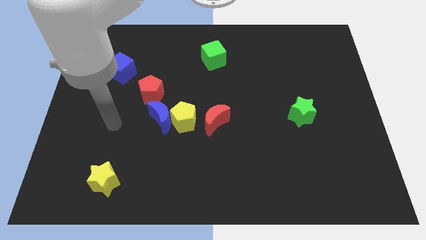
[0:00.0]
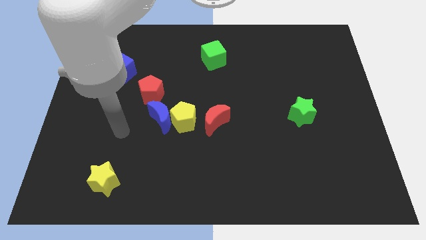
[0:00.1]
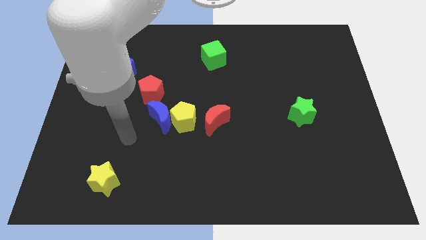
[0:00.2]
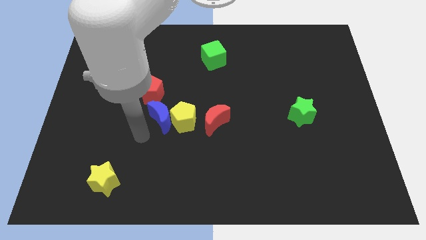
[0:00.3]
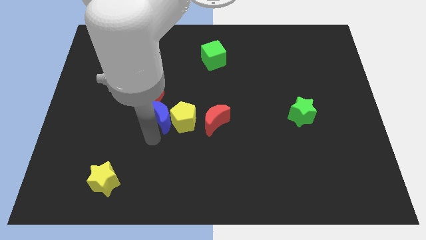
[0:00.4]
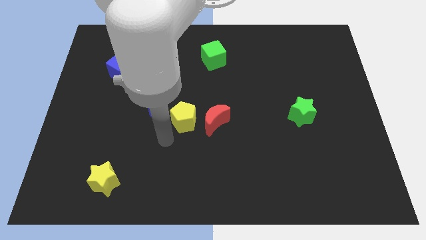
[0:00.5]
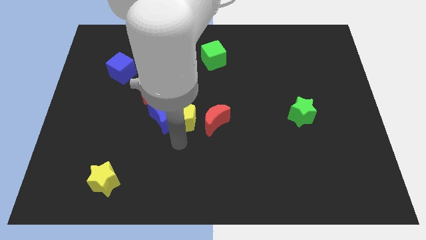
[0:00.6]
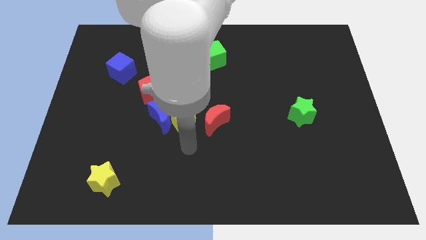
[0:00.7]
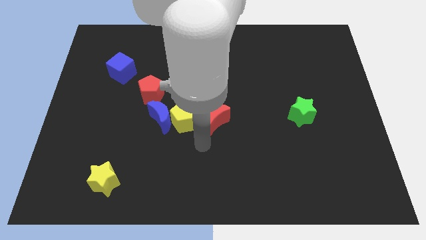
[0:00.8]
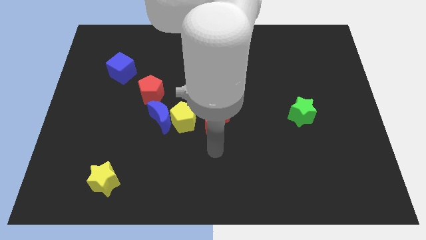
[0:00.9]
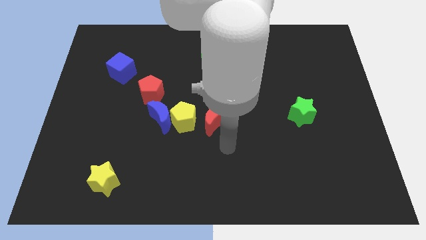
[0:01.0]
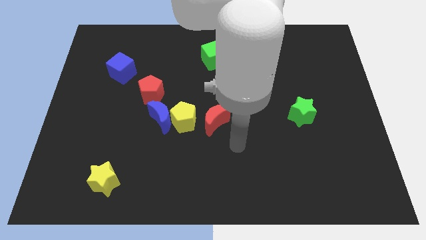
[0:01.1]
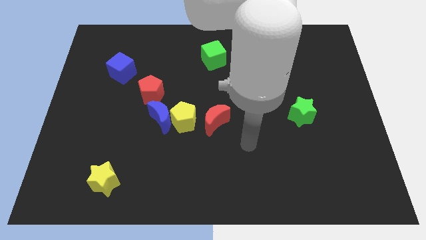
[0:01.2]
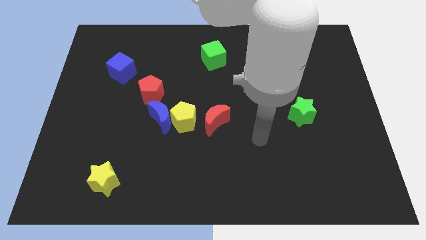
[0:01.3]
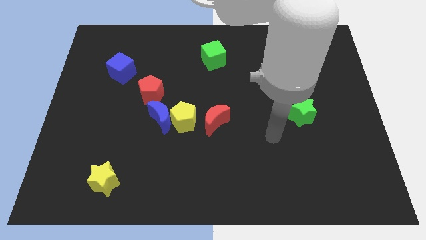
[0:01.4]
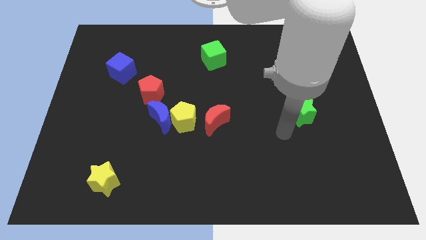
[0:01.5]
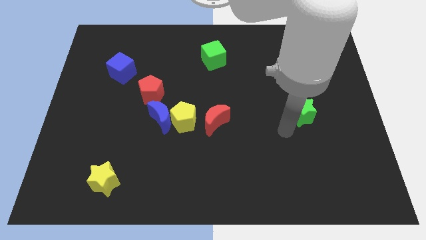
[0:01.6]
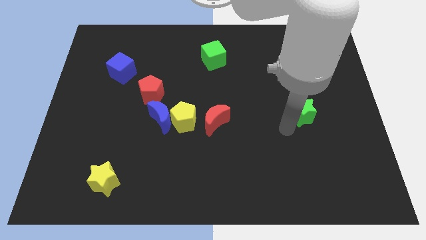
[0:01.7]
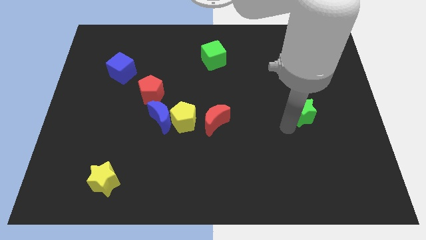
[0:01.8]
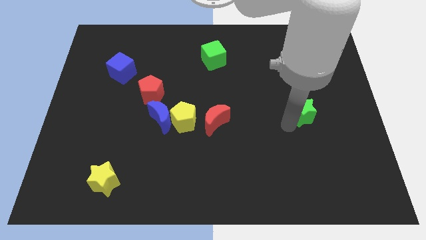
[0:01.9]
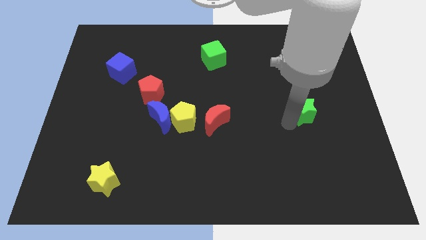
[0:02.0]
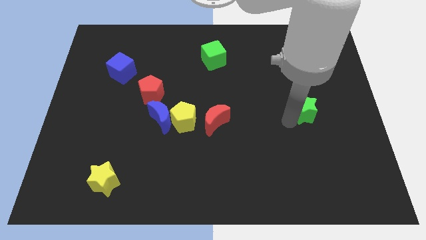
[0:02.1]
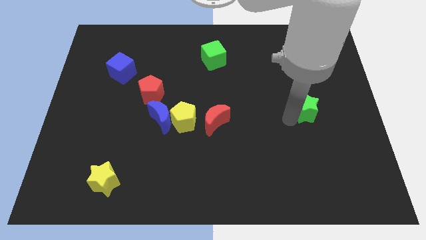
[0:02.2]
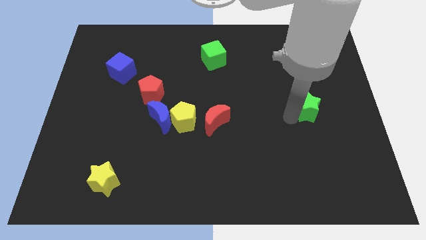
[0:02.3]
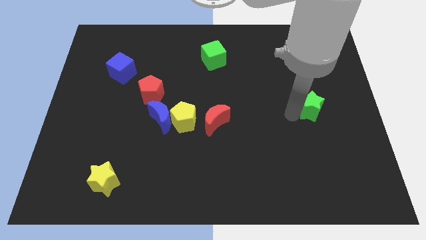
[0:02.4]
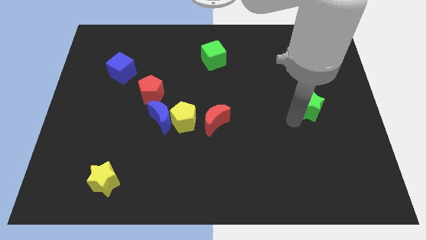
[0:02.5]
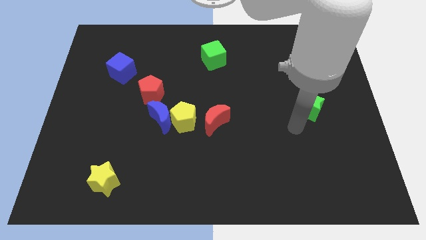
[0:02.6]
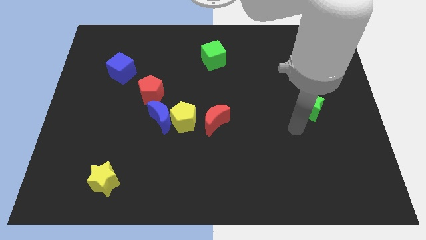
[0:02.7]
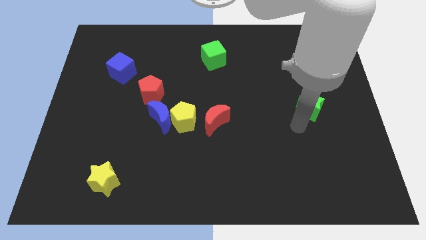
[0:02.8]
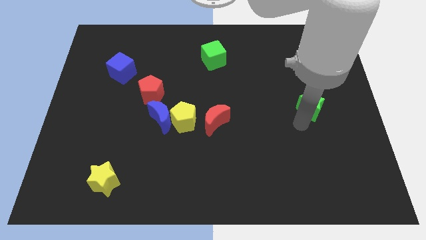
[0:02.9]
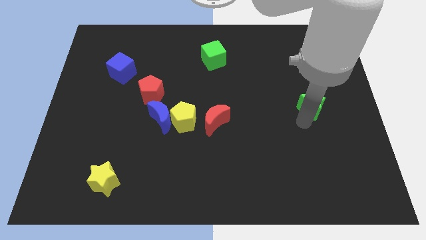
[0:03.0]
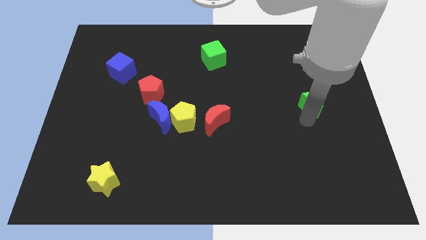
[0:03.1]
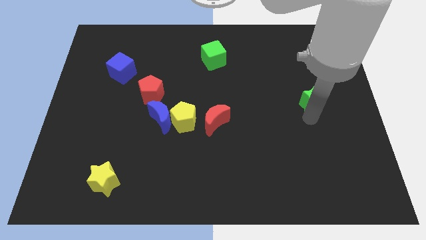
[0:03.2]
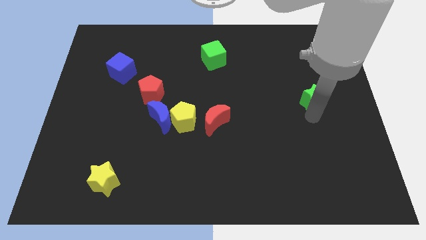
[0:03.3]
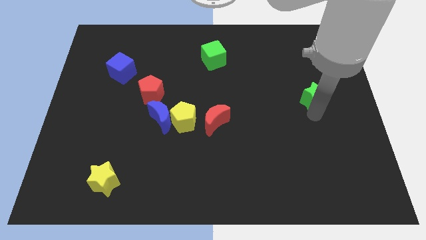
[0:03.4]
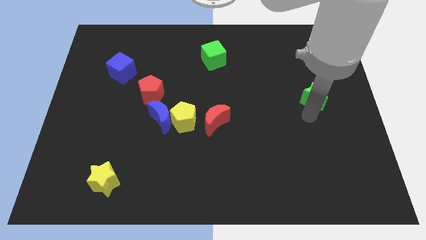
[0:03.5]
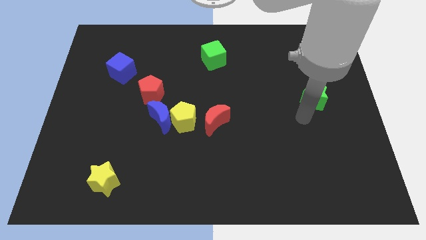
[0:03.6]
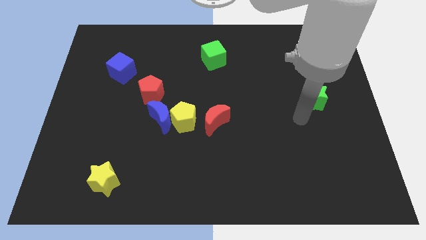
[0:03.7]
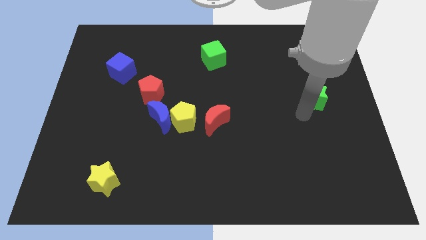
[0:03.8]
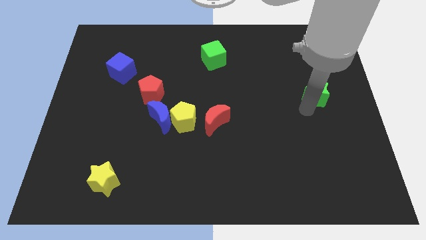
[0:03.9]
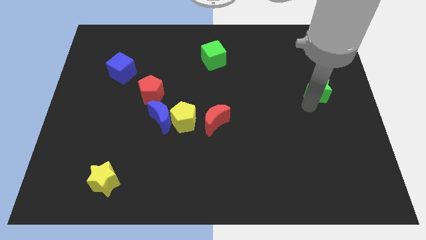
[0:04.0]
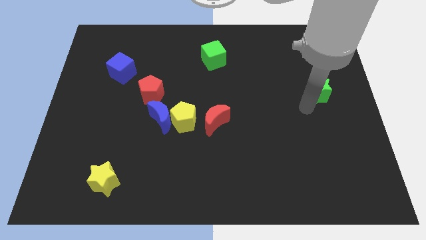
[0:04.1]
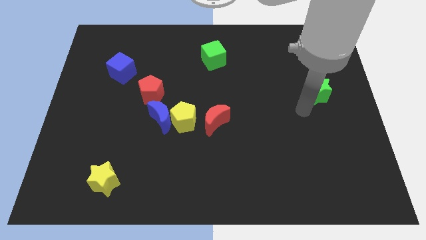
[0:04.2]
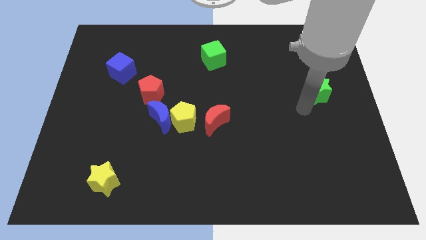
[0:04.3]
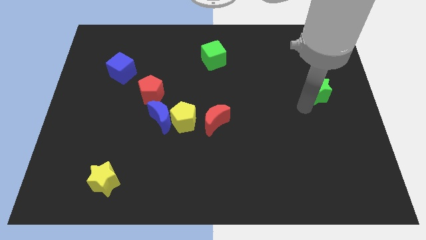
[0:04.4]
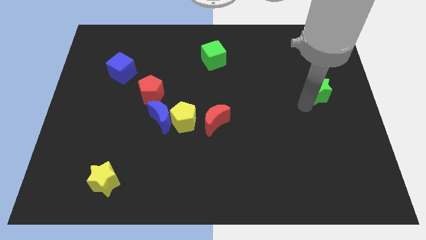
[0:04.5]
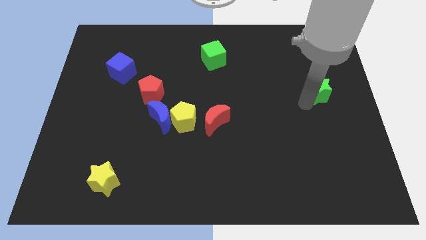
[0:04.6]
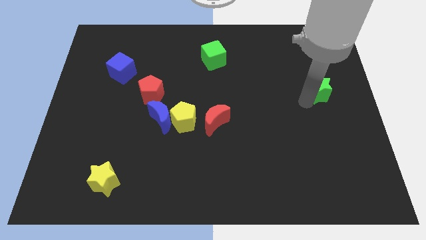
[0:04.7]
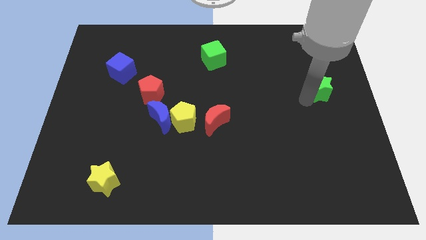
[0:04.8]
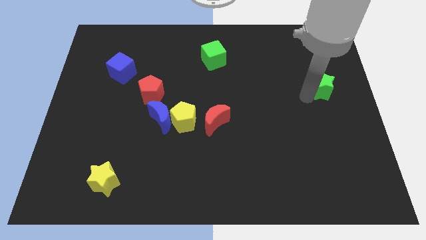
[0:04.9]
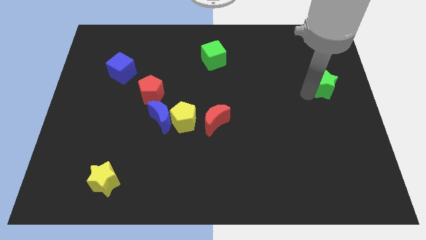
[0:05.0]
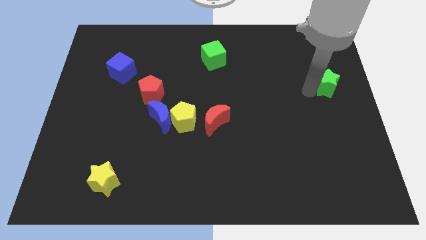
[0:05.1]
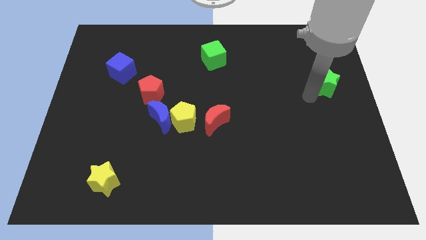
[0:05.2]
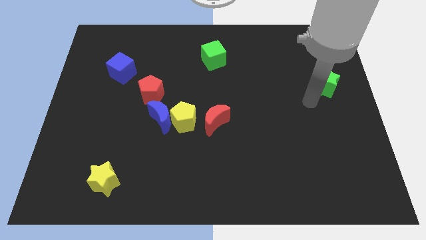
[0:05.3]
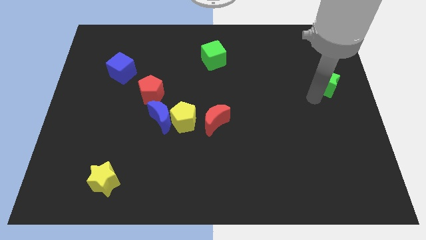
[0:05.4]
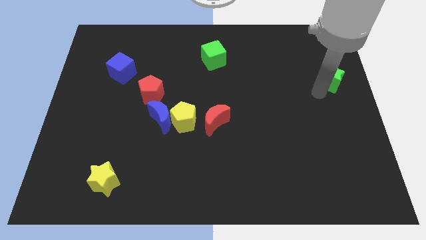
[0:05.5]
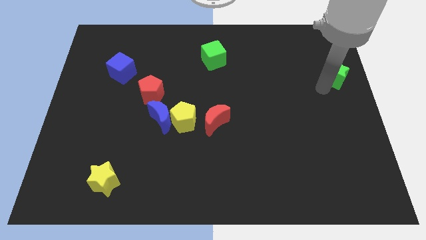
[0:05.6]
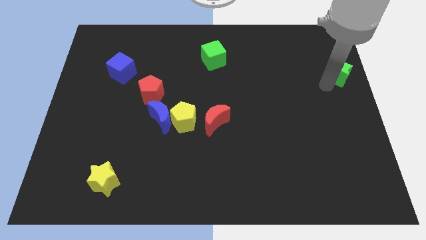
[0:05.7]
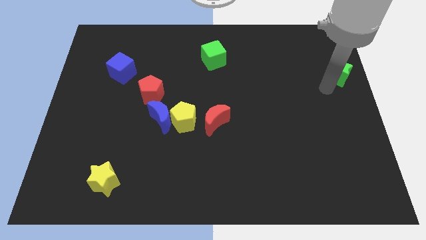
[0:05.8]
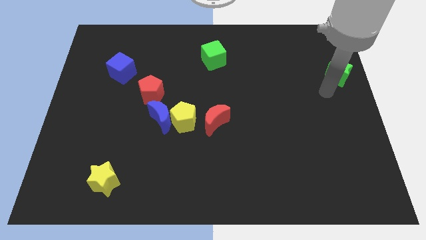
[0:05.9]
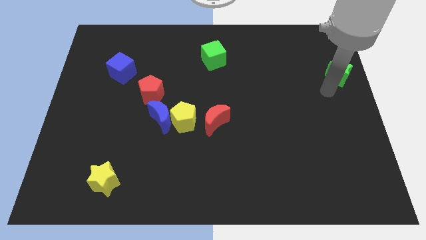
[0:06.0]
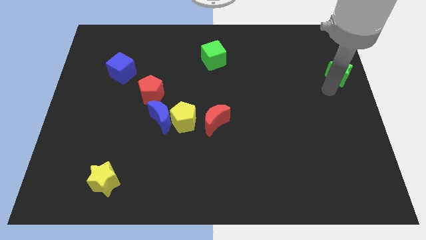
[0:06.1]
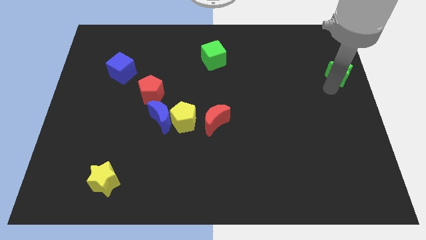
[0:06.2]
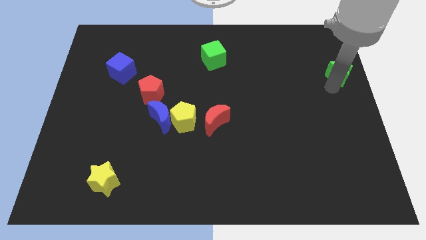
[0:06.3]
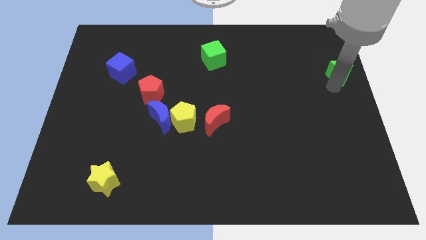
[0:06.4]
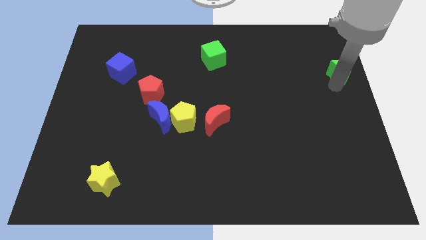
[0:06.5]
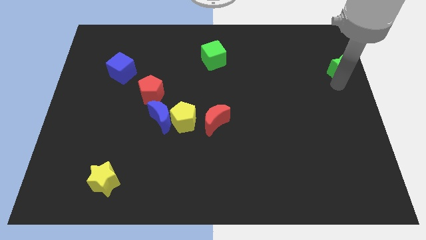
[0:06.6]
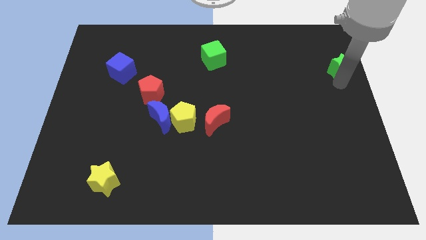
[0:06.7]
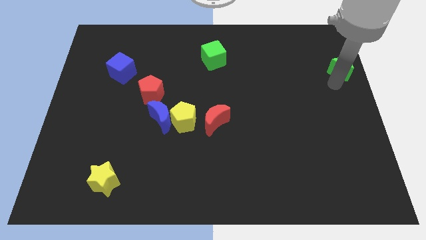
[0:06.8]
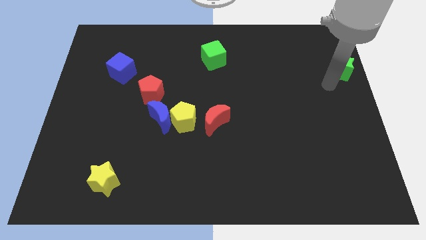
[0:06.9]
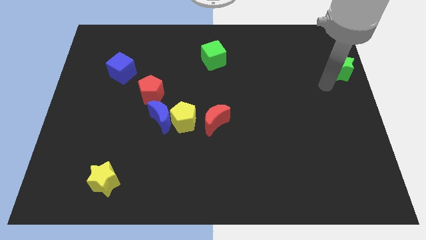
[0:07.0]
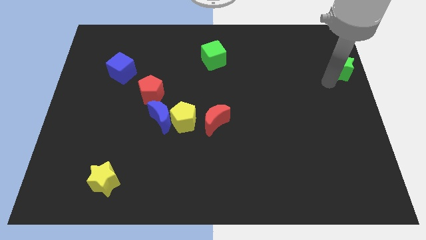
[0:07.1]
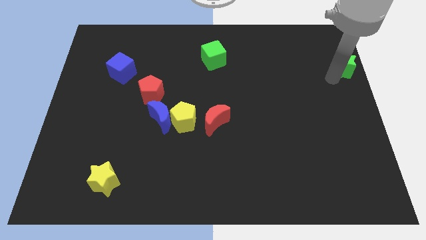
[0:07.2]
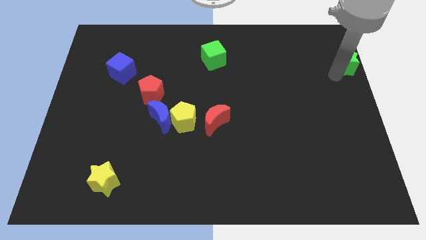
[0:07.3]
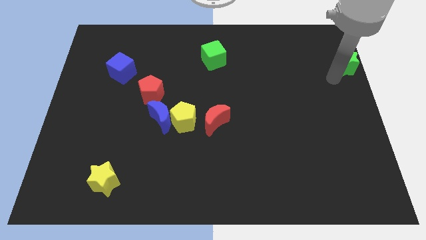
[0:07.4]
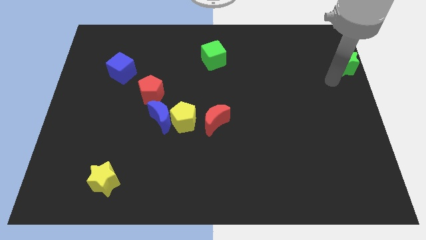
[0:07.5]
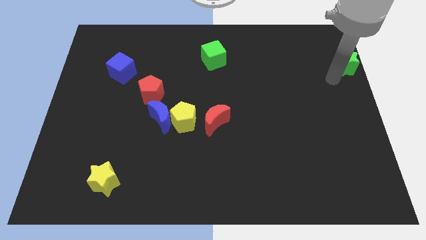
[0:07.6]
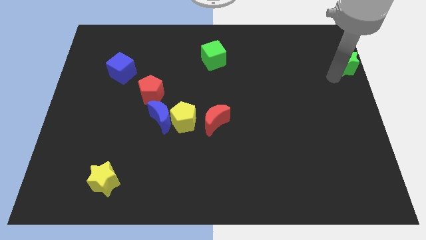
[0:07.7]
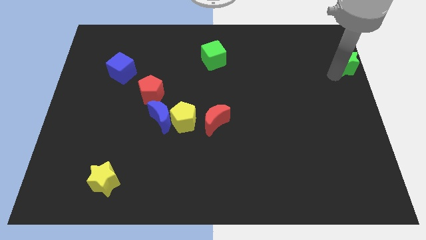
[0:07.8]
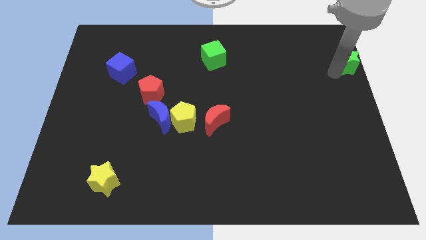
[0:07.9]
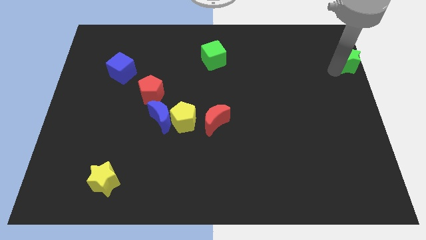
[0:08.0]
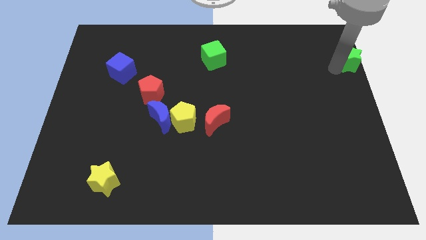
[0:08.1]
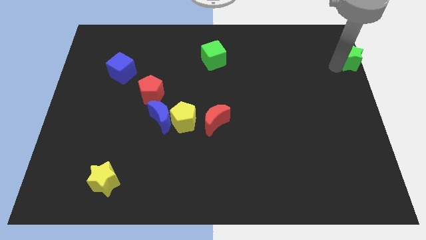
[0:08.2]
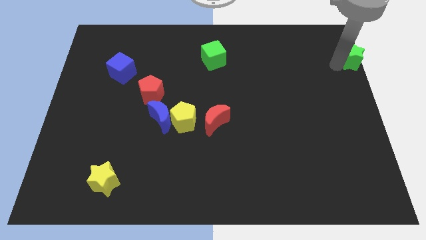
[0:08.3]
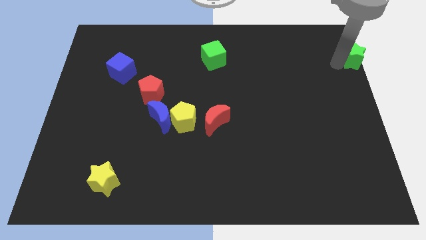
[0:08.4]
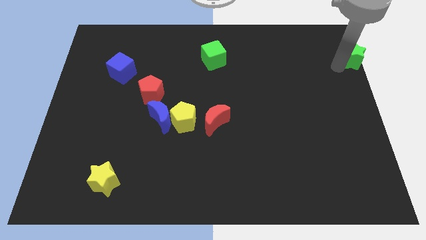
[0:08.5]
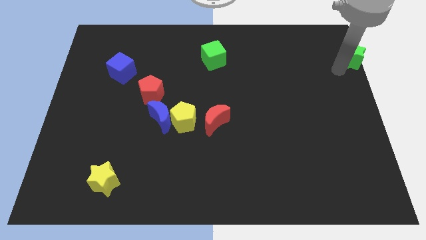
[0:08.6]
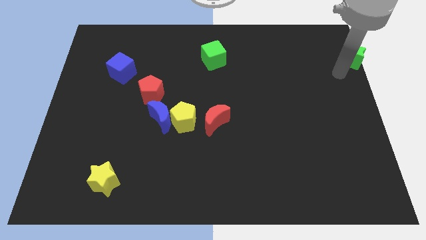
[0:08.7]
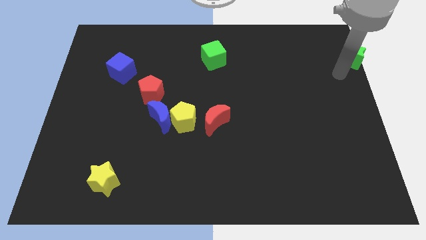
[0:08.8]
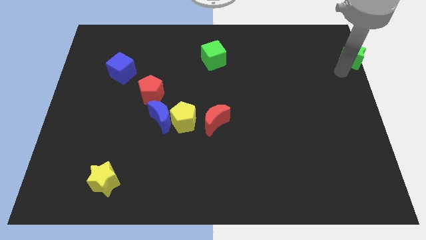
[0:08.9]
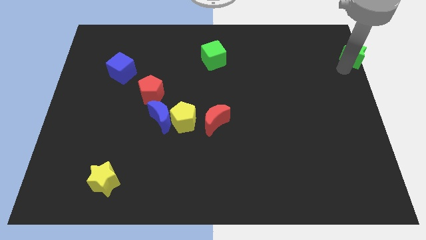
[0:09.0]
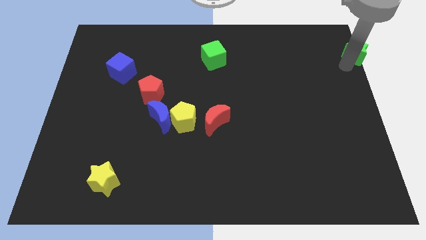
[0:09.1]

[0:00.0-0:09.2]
move the green star to the top right corner
